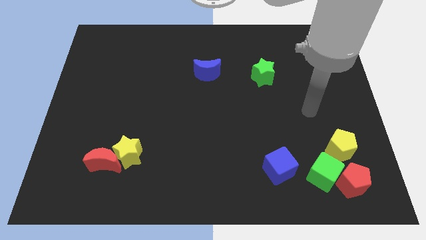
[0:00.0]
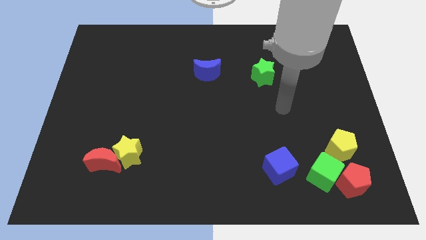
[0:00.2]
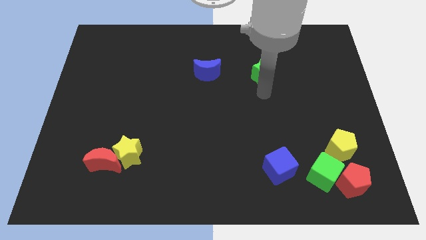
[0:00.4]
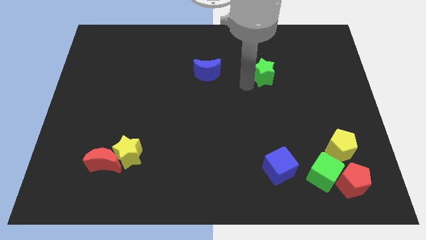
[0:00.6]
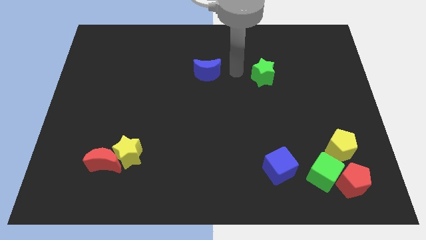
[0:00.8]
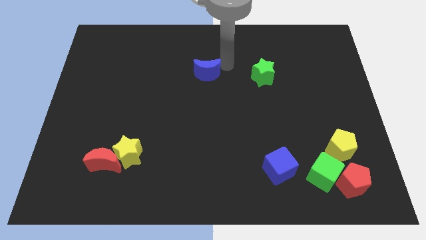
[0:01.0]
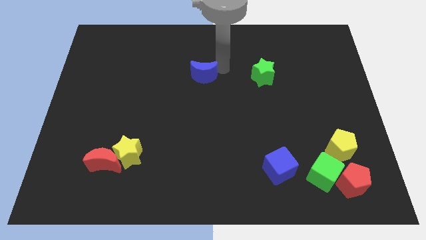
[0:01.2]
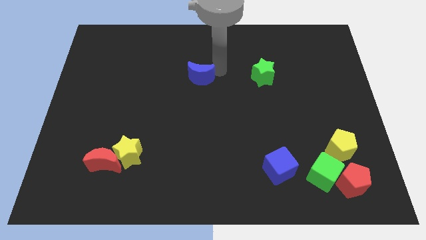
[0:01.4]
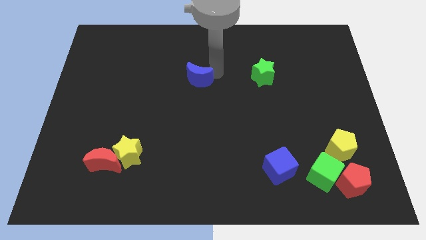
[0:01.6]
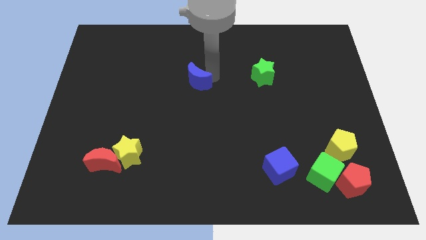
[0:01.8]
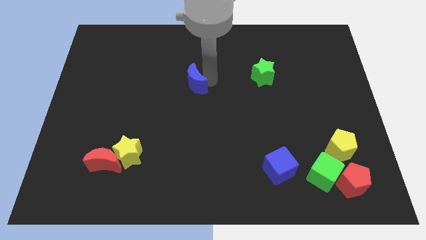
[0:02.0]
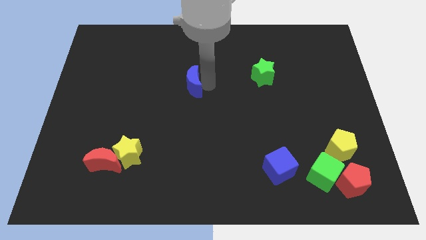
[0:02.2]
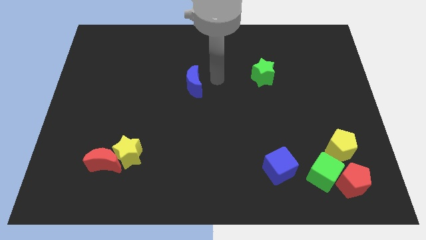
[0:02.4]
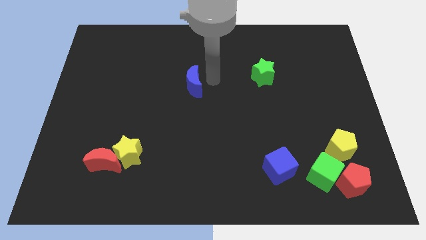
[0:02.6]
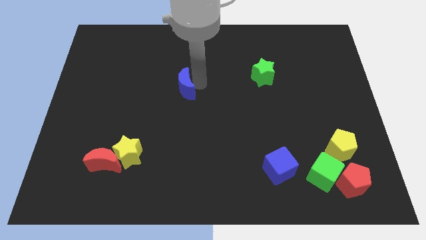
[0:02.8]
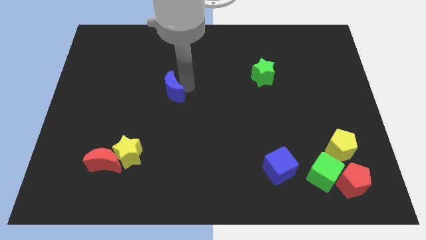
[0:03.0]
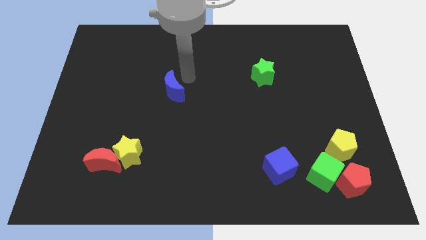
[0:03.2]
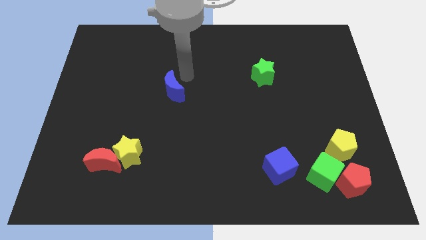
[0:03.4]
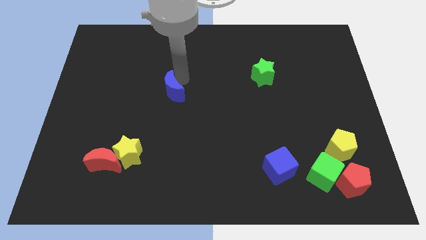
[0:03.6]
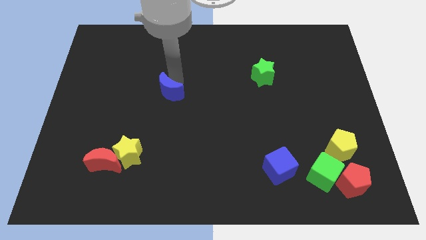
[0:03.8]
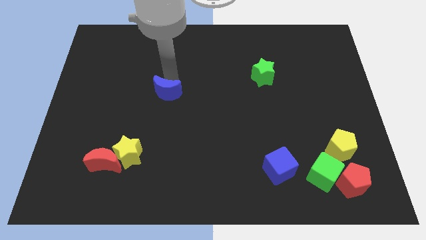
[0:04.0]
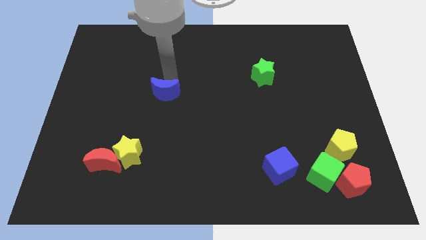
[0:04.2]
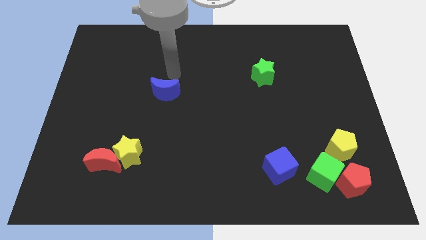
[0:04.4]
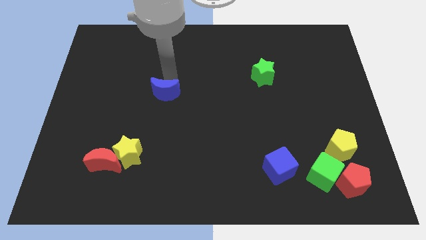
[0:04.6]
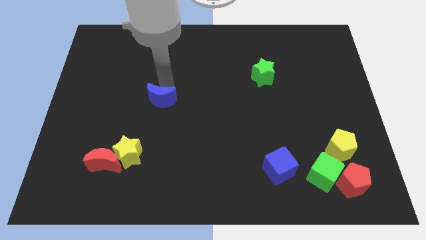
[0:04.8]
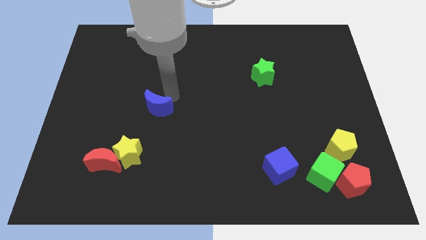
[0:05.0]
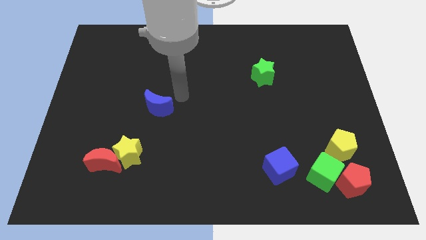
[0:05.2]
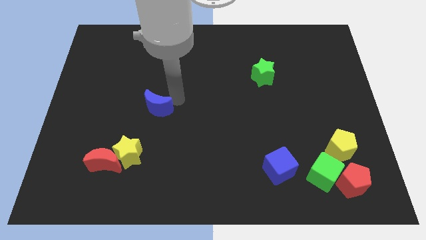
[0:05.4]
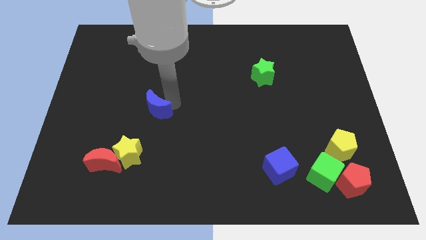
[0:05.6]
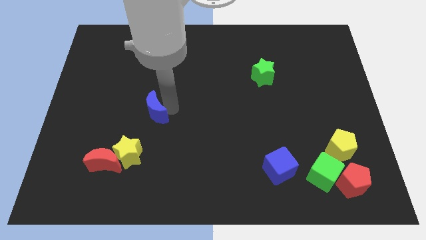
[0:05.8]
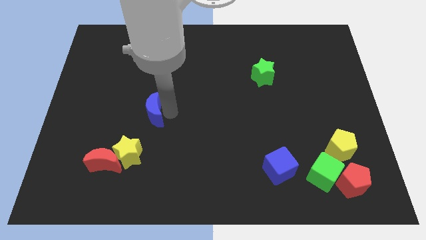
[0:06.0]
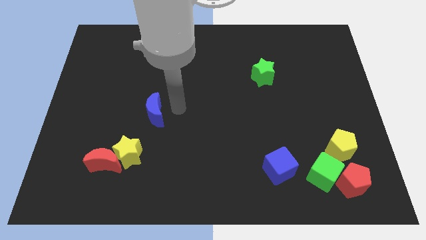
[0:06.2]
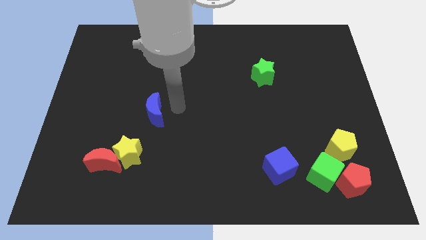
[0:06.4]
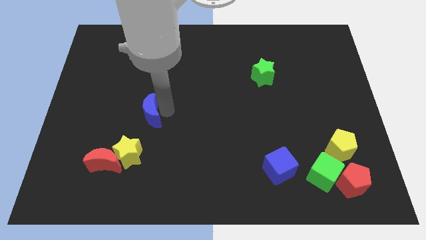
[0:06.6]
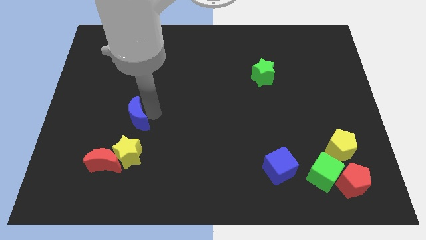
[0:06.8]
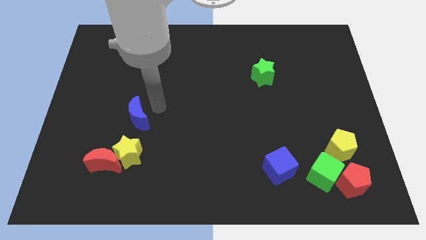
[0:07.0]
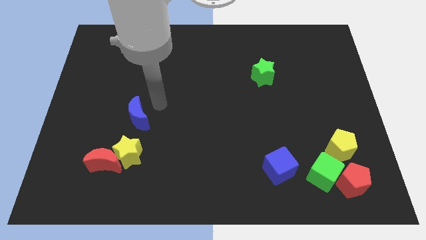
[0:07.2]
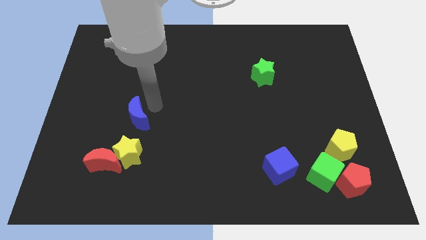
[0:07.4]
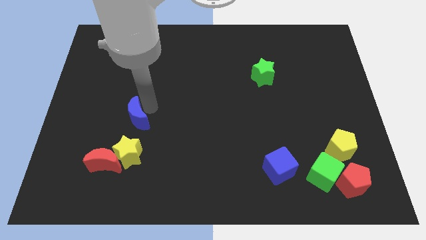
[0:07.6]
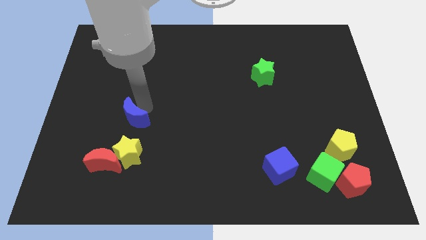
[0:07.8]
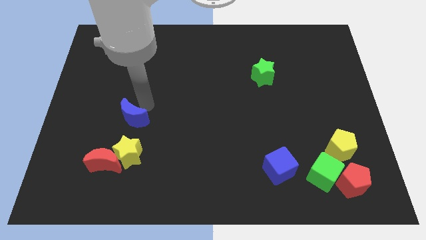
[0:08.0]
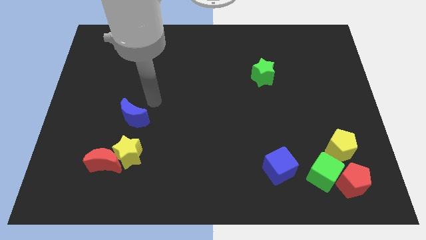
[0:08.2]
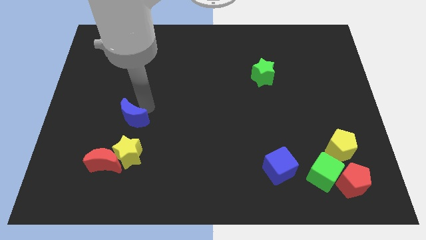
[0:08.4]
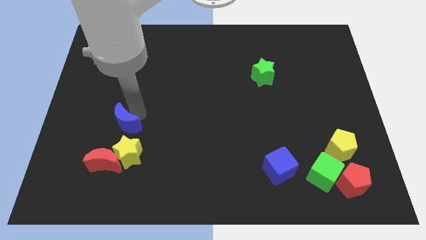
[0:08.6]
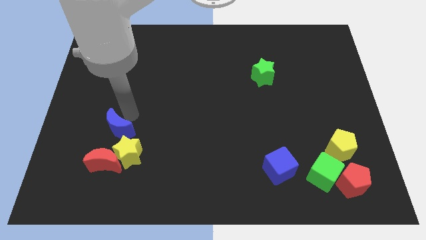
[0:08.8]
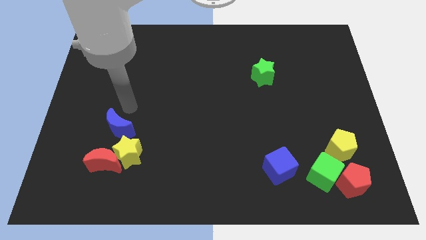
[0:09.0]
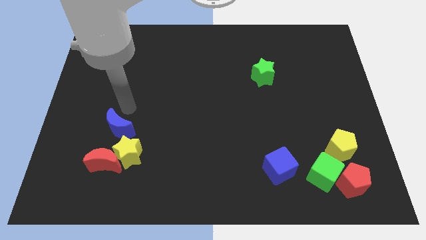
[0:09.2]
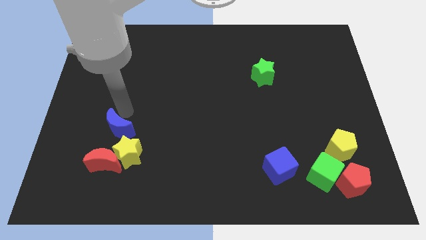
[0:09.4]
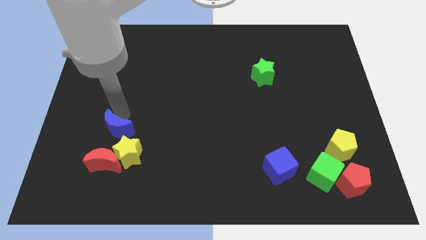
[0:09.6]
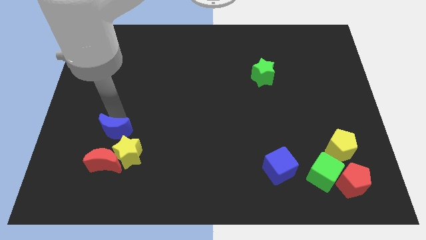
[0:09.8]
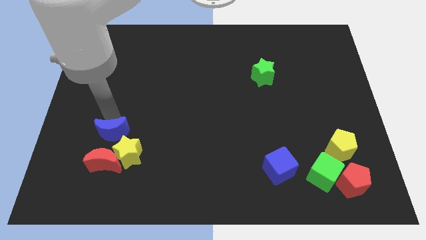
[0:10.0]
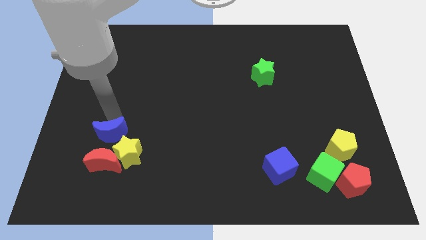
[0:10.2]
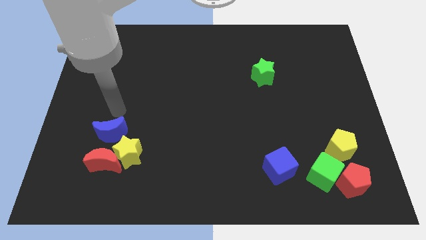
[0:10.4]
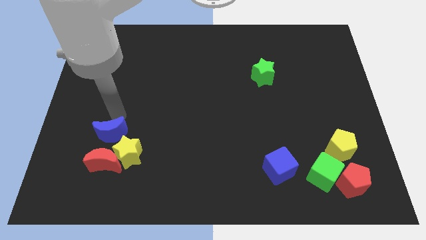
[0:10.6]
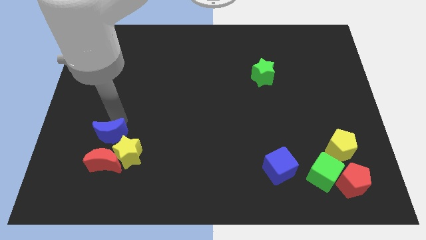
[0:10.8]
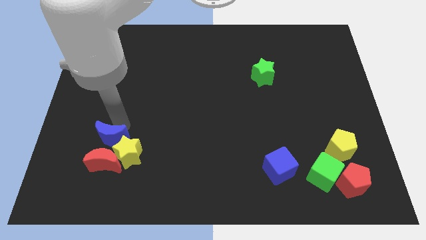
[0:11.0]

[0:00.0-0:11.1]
slide the blue moon towards the red moon

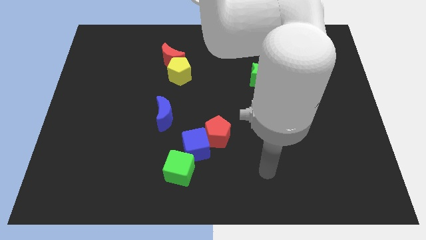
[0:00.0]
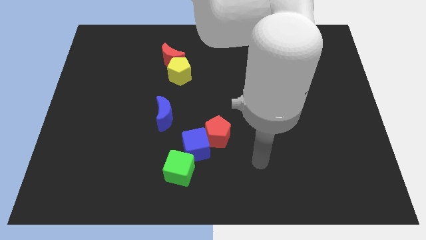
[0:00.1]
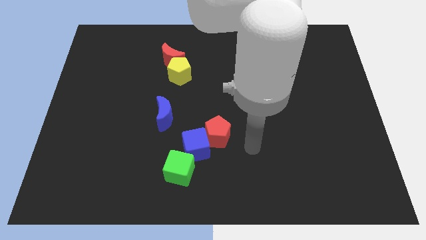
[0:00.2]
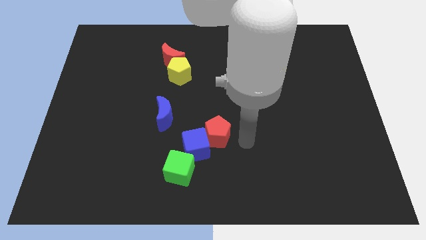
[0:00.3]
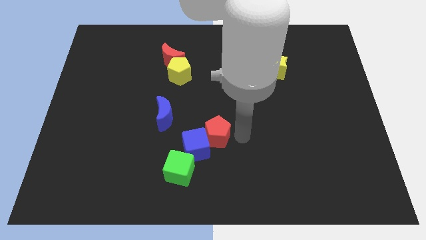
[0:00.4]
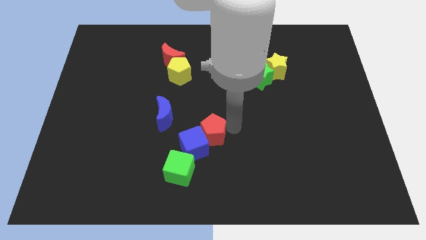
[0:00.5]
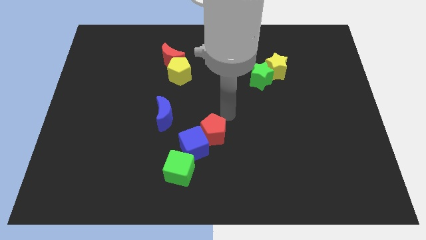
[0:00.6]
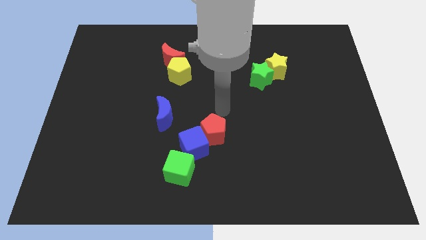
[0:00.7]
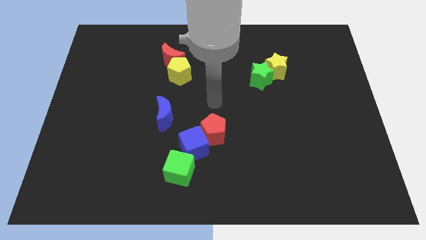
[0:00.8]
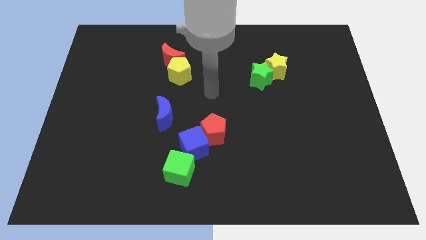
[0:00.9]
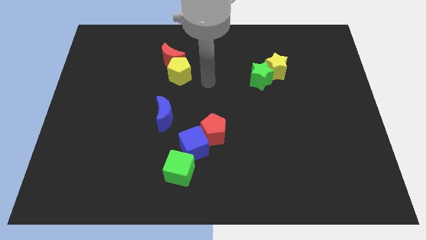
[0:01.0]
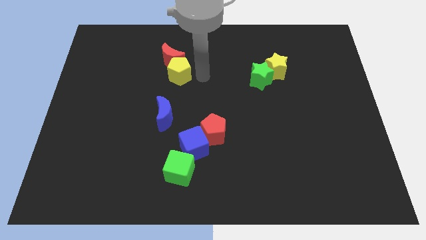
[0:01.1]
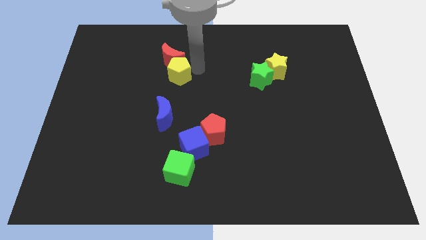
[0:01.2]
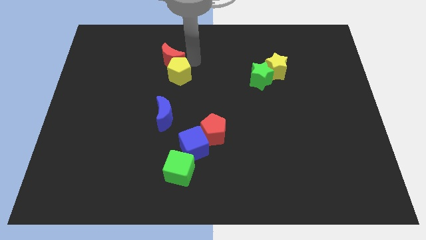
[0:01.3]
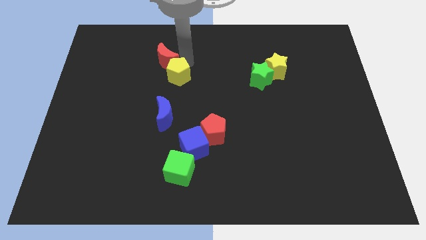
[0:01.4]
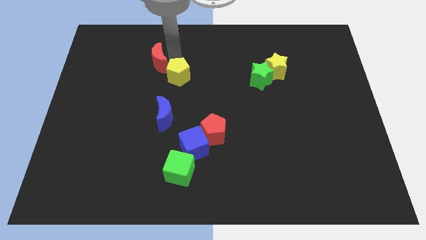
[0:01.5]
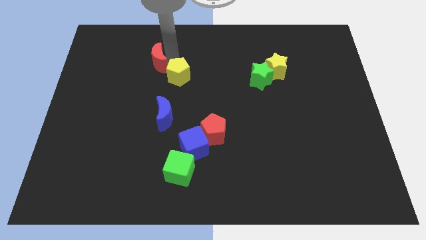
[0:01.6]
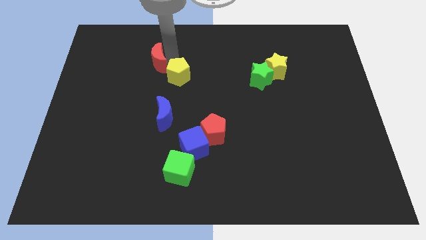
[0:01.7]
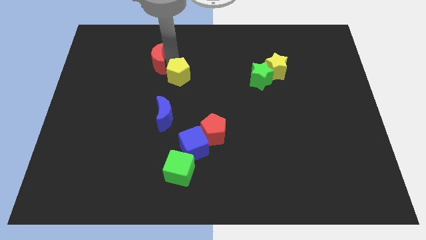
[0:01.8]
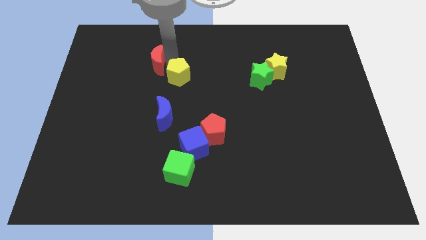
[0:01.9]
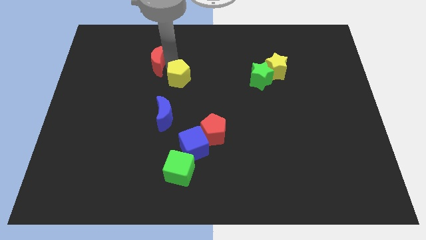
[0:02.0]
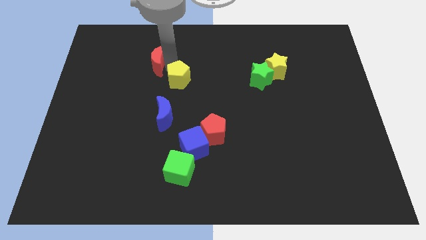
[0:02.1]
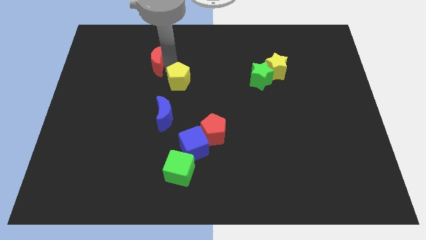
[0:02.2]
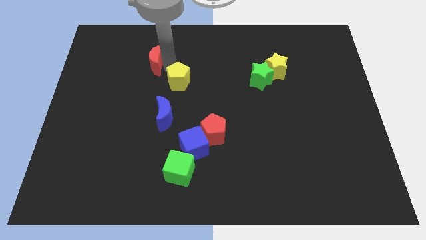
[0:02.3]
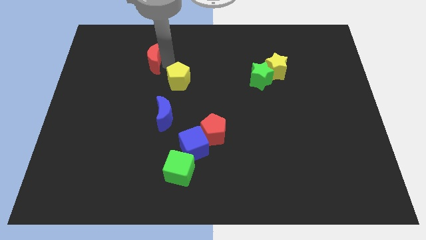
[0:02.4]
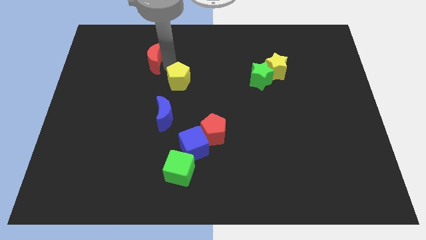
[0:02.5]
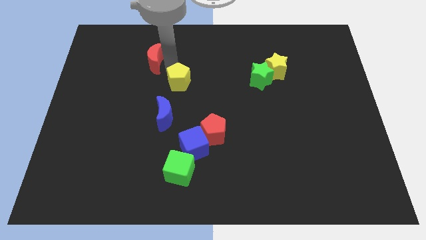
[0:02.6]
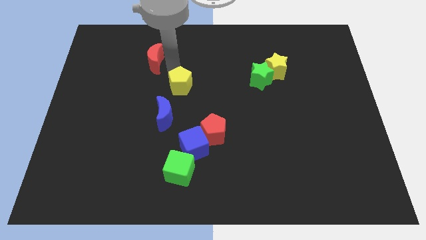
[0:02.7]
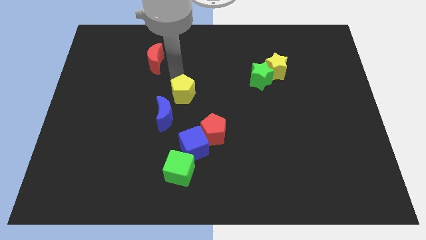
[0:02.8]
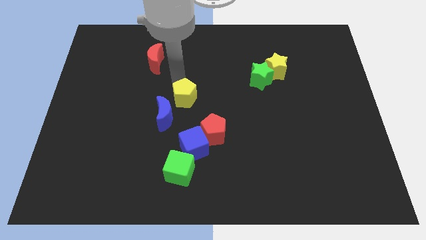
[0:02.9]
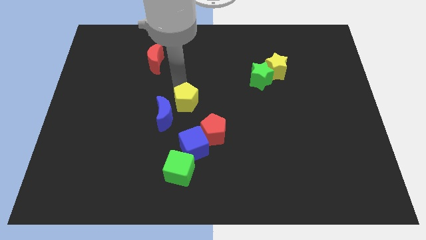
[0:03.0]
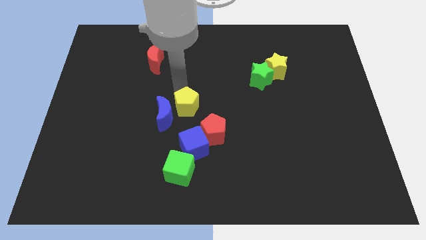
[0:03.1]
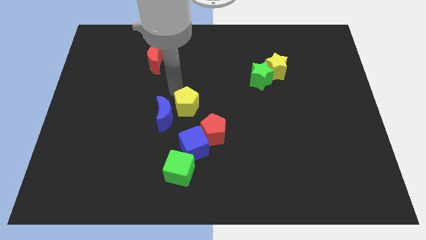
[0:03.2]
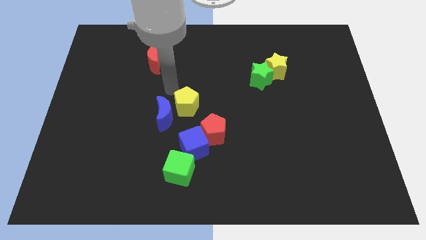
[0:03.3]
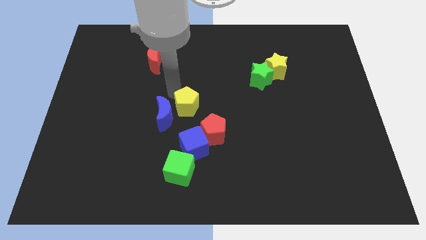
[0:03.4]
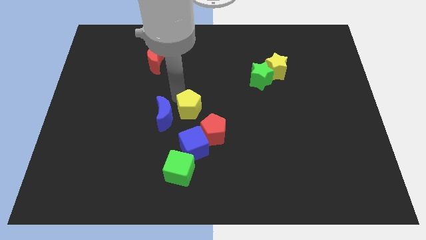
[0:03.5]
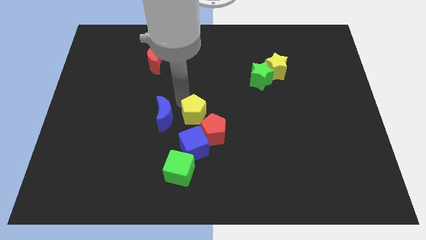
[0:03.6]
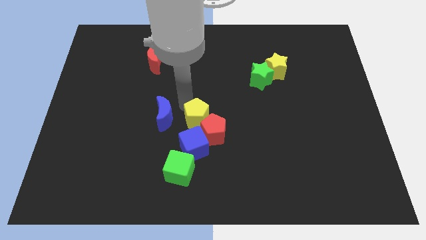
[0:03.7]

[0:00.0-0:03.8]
slide the yellow pentagon to the red pentagon
